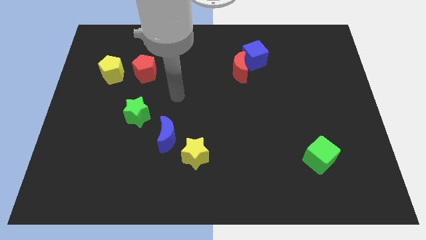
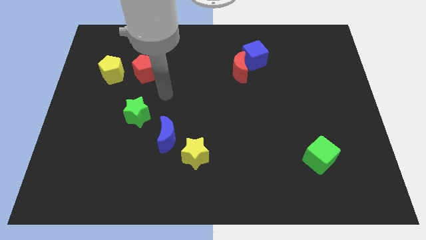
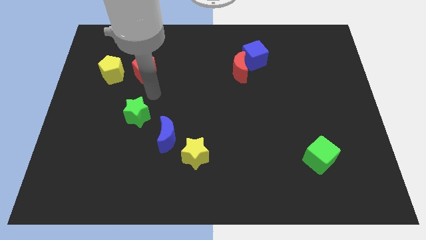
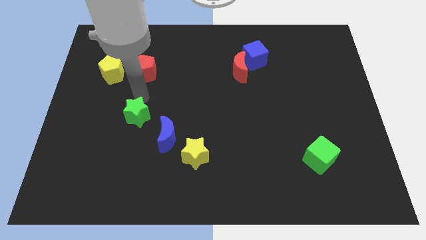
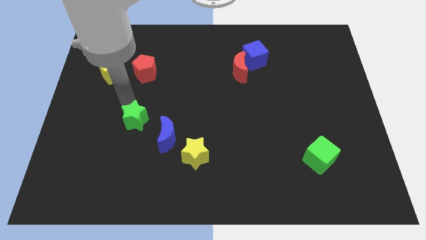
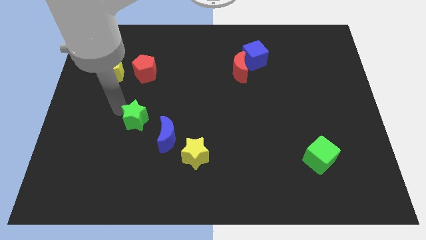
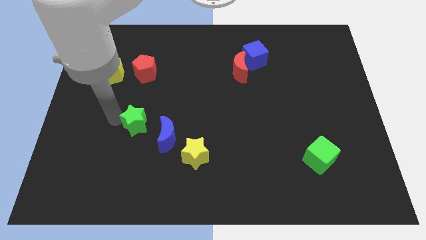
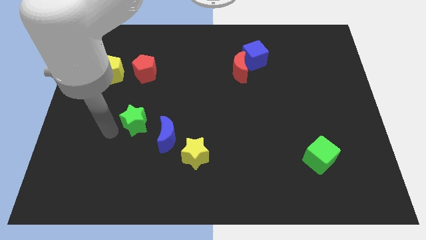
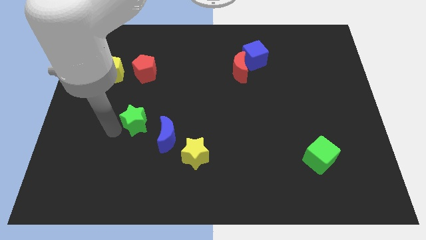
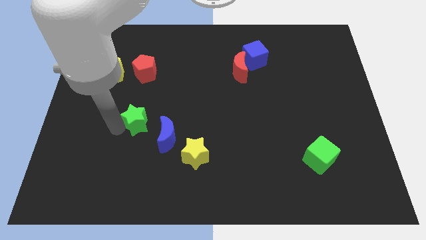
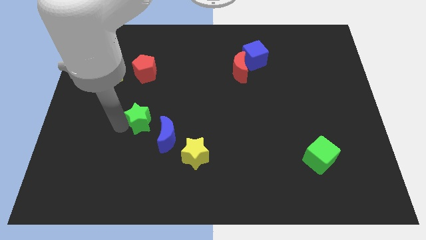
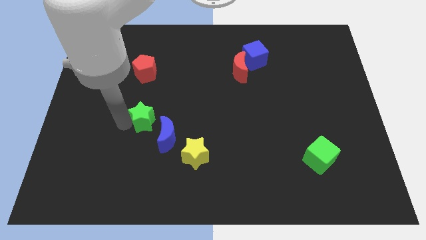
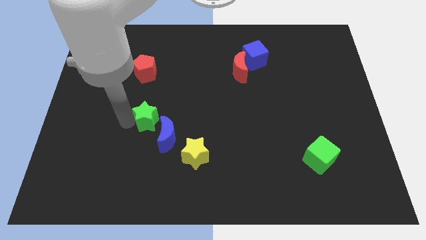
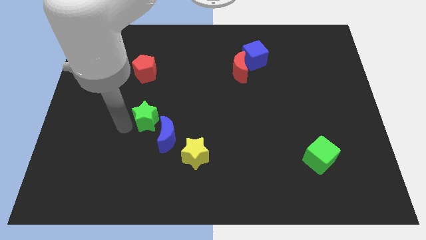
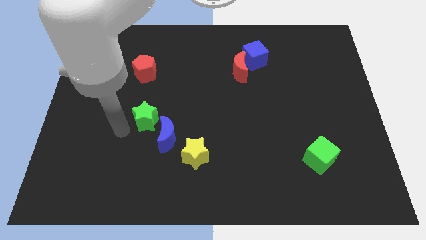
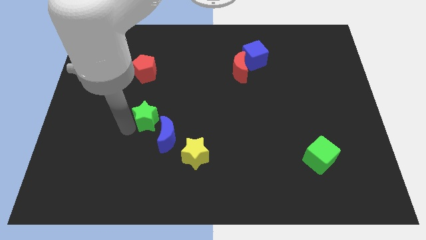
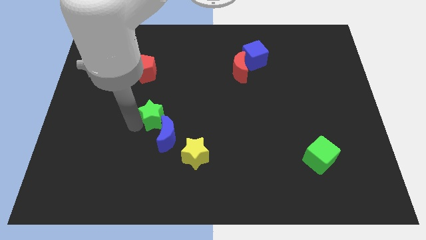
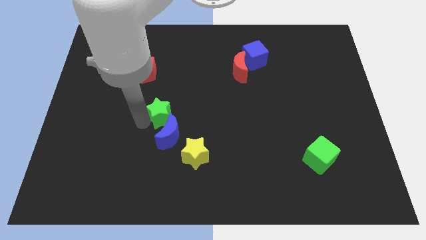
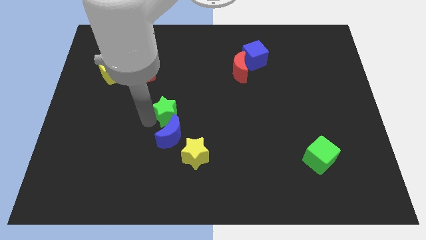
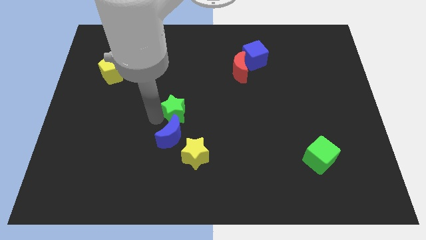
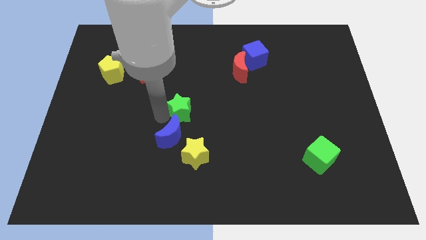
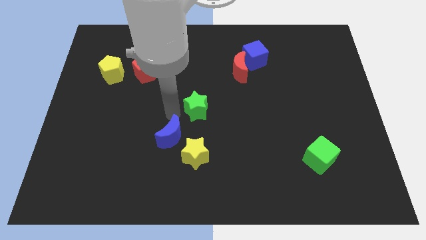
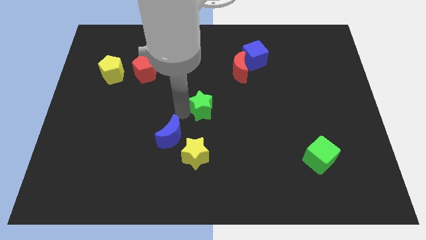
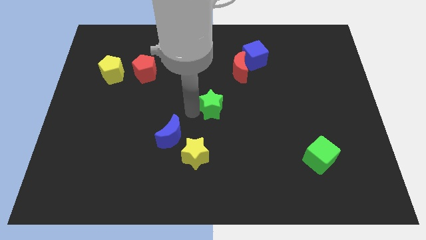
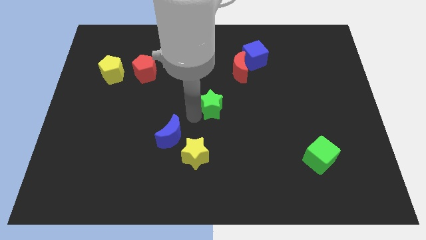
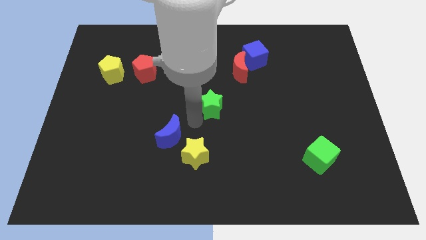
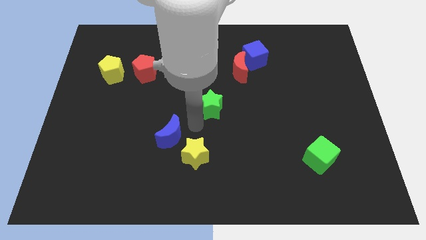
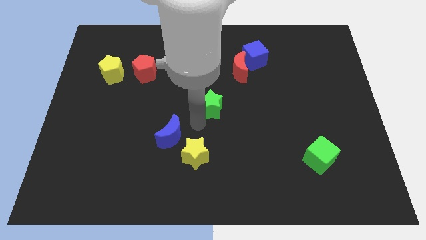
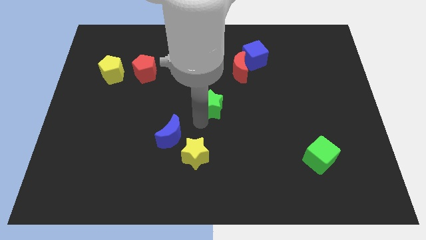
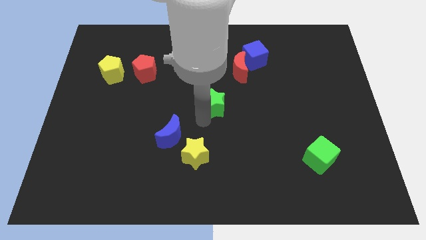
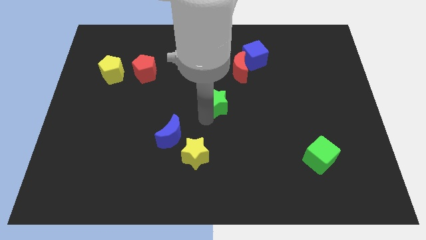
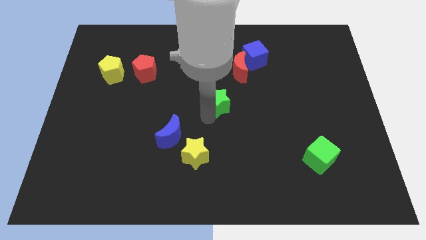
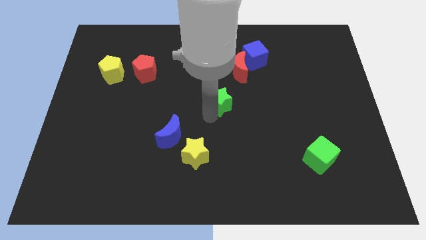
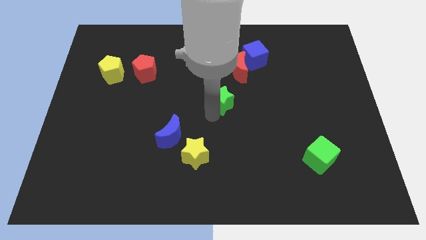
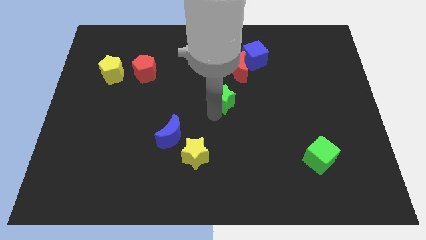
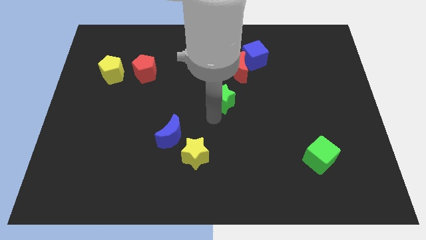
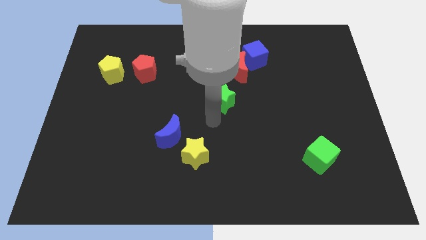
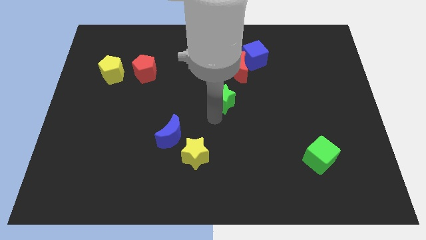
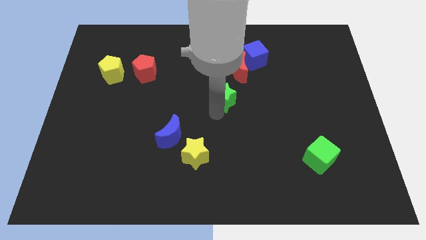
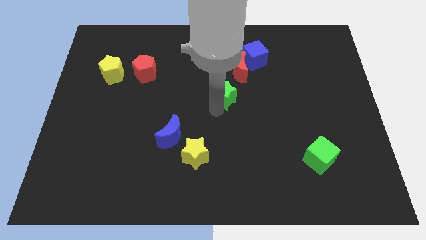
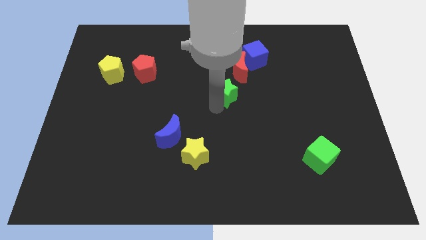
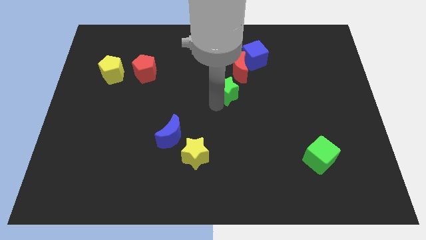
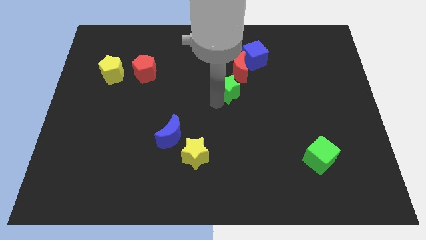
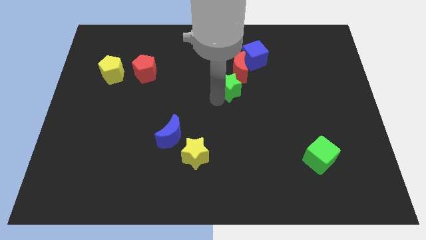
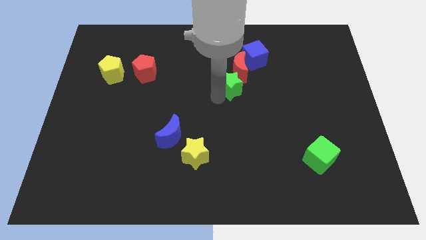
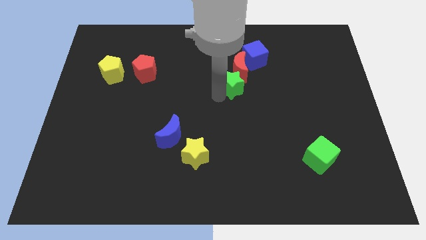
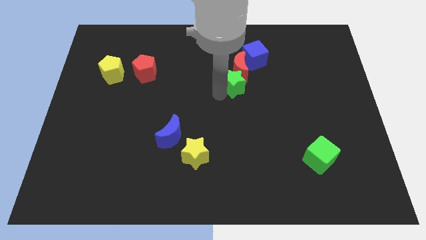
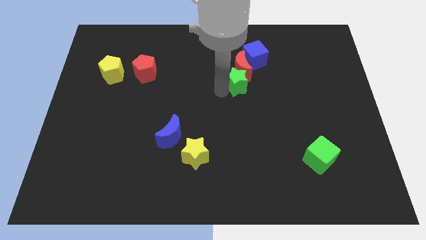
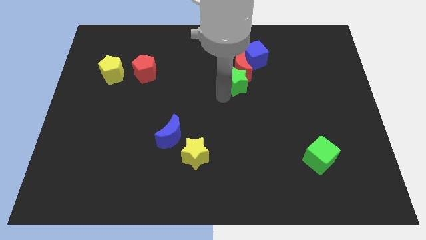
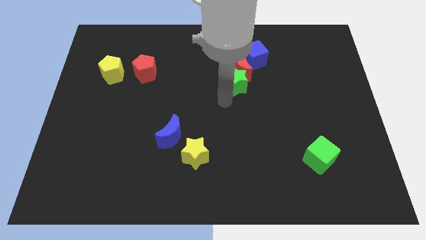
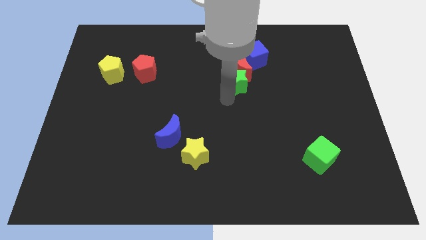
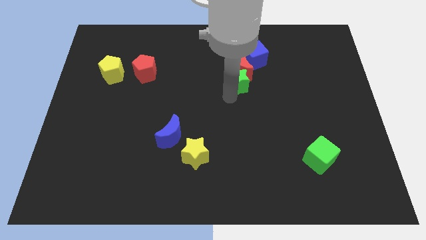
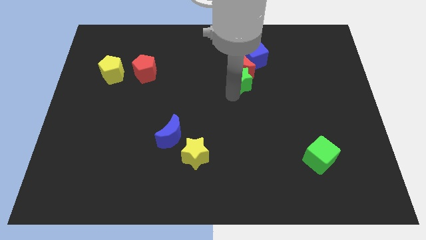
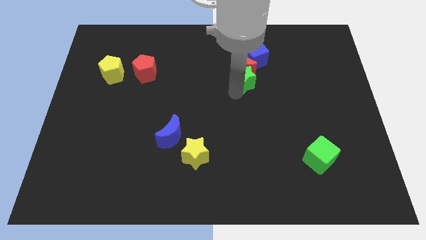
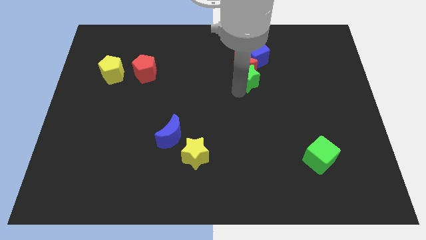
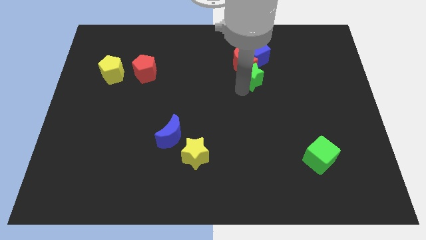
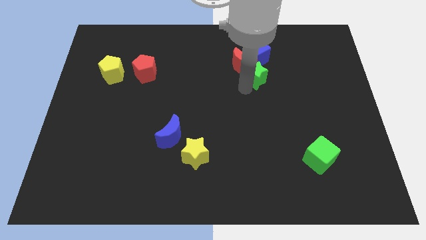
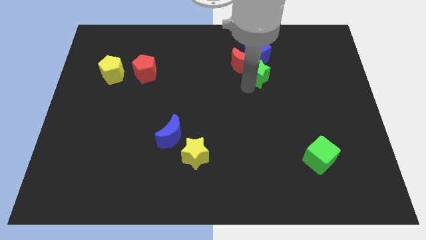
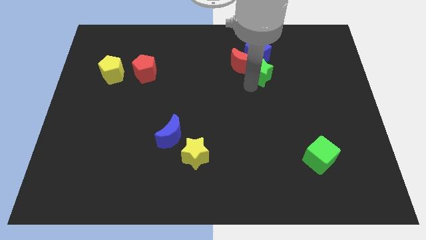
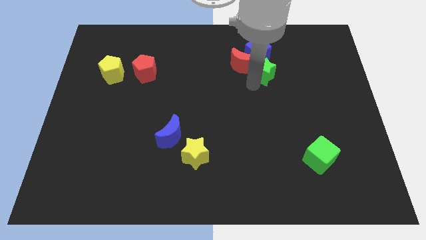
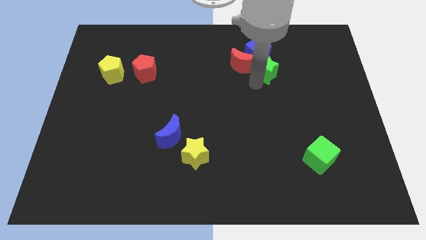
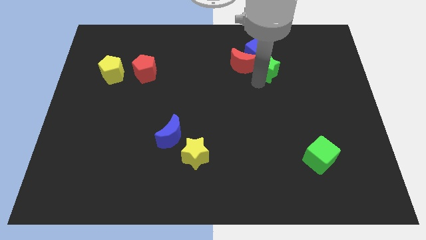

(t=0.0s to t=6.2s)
slide the green star to the blue cube
